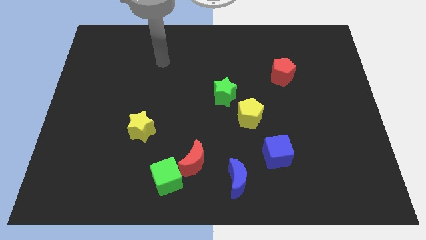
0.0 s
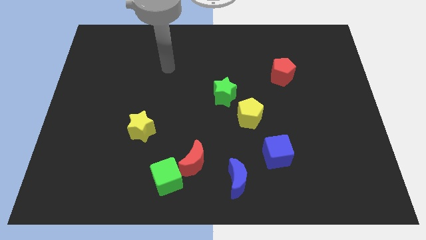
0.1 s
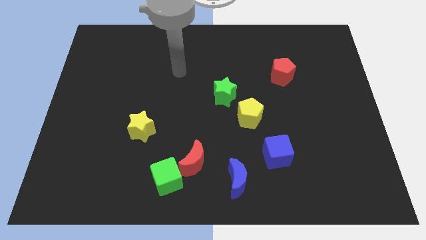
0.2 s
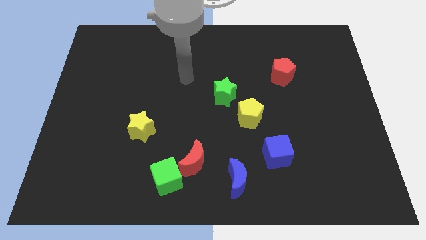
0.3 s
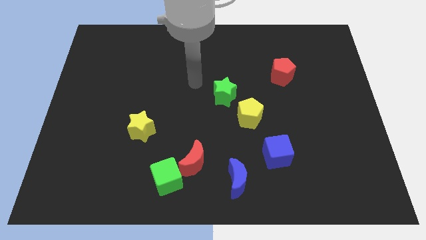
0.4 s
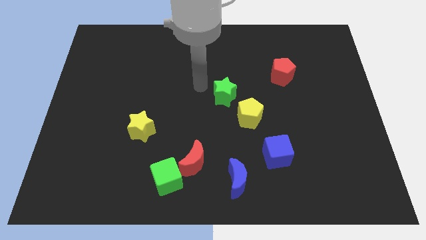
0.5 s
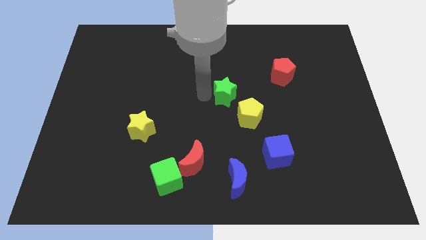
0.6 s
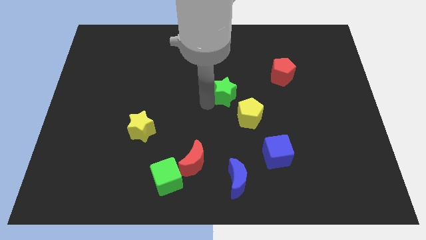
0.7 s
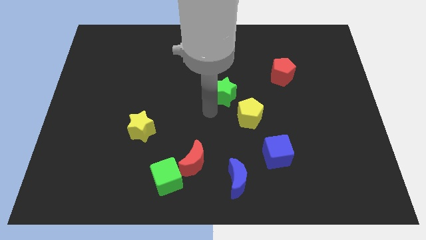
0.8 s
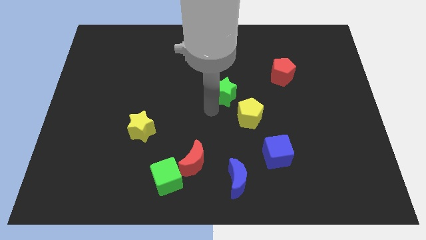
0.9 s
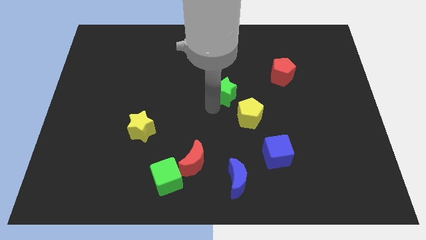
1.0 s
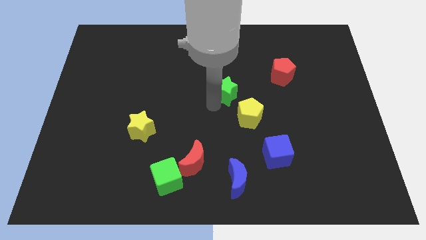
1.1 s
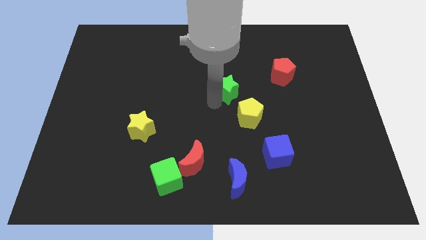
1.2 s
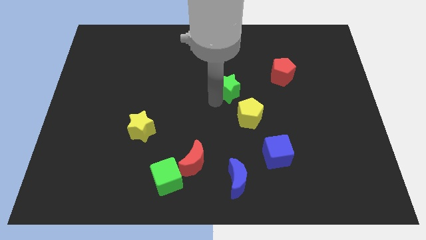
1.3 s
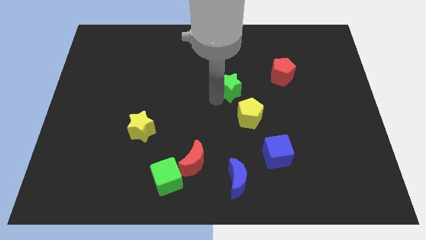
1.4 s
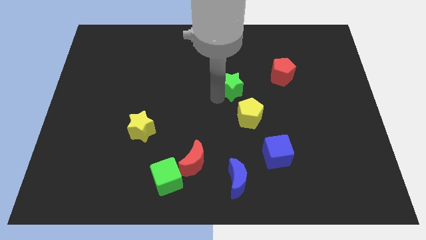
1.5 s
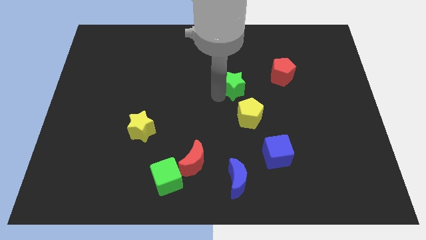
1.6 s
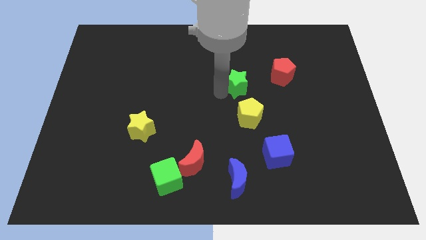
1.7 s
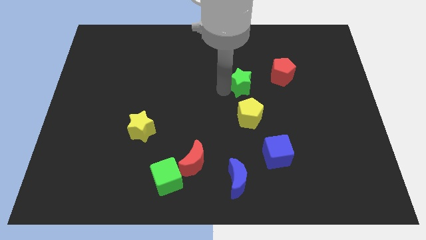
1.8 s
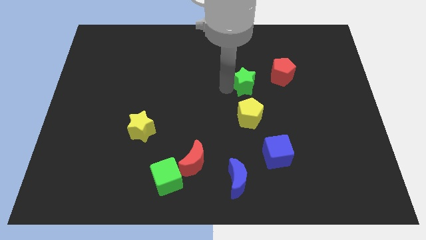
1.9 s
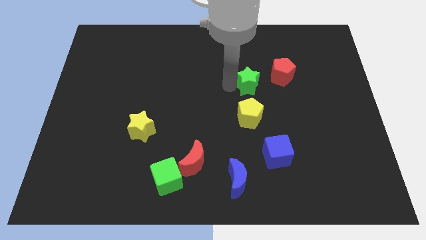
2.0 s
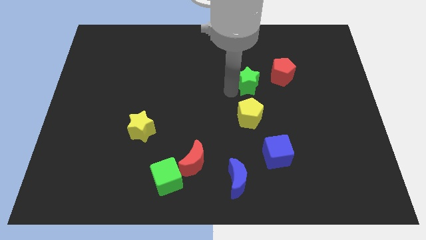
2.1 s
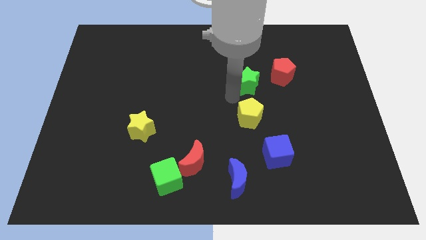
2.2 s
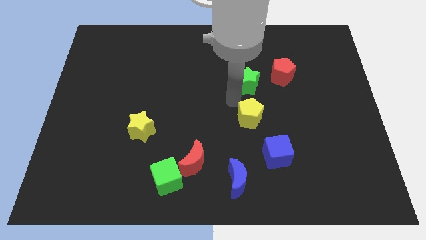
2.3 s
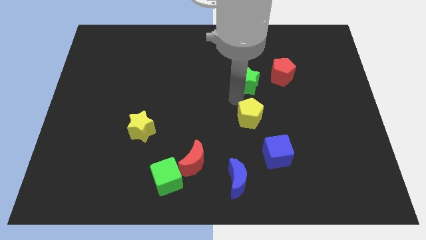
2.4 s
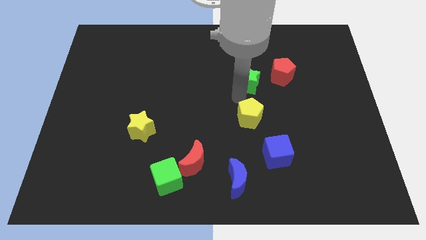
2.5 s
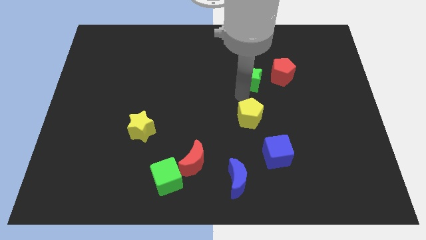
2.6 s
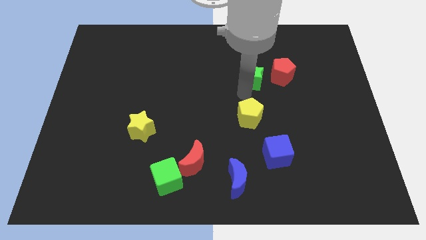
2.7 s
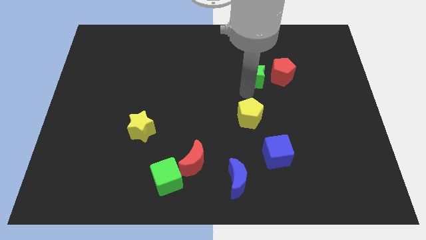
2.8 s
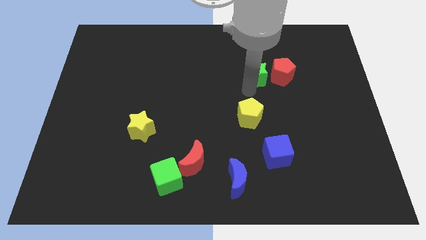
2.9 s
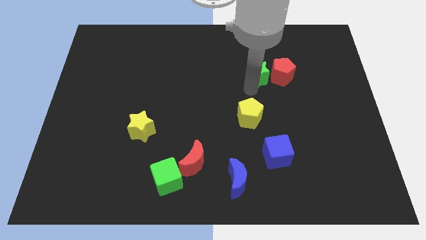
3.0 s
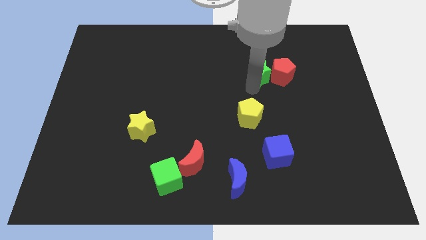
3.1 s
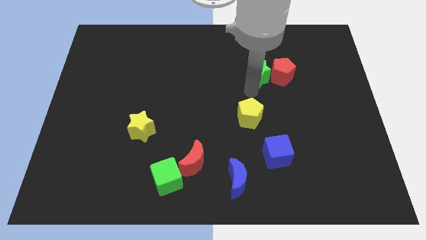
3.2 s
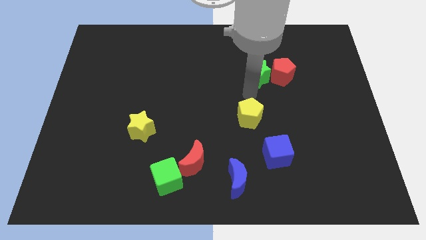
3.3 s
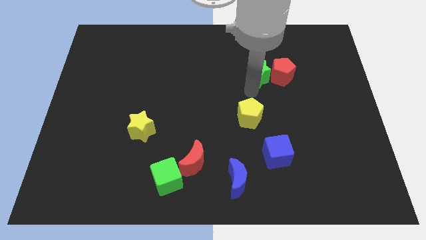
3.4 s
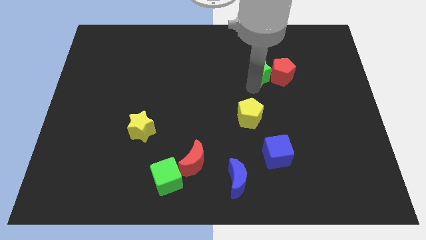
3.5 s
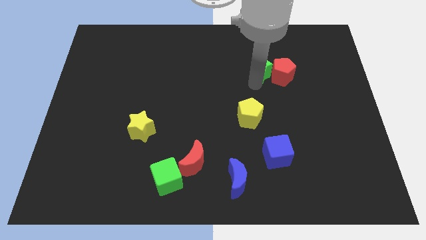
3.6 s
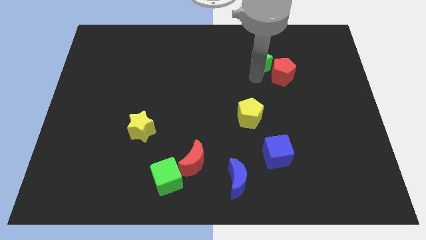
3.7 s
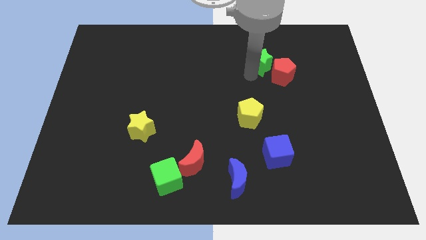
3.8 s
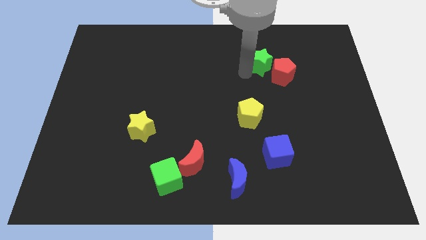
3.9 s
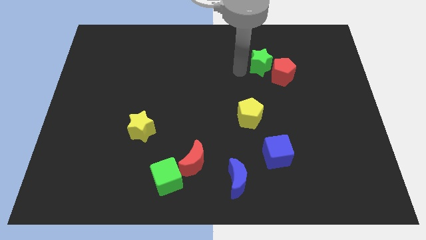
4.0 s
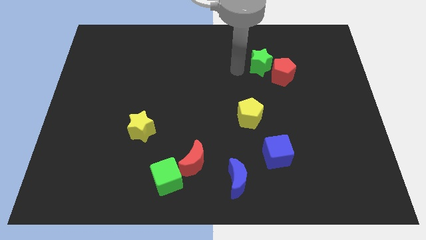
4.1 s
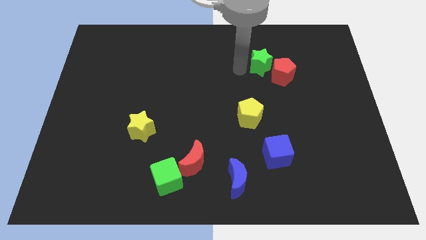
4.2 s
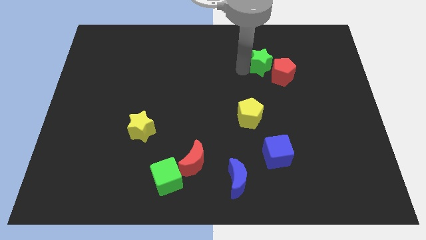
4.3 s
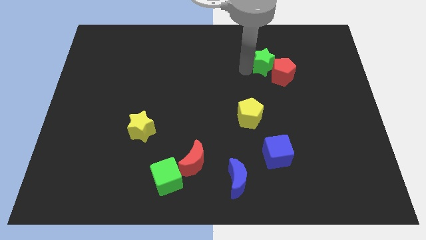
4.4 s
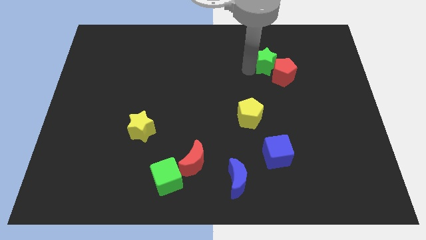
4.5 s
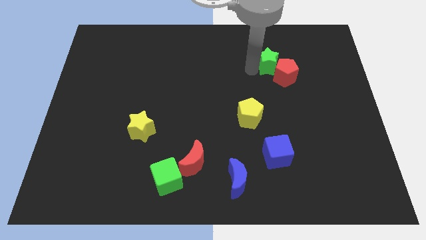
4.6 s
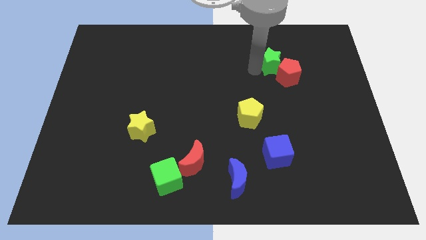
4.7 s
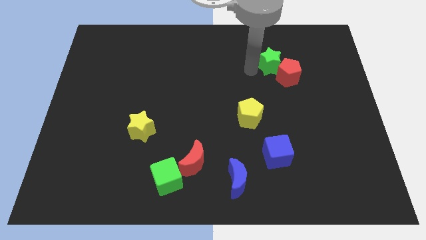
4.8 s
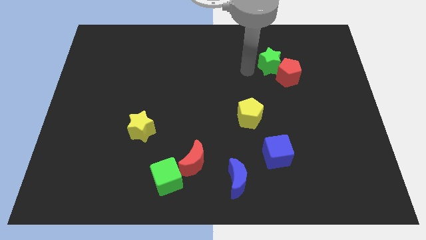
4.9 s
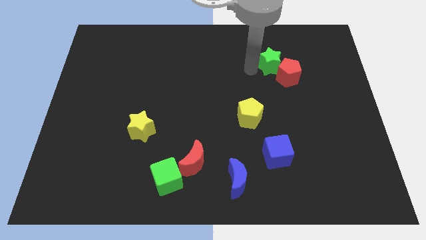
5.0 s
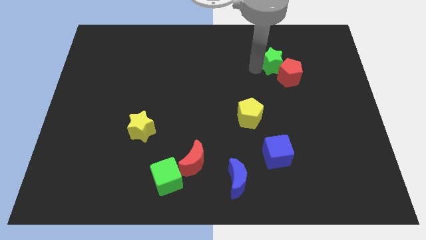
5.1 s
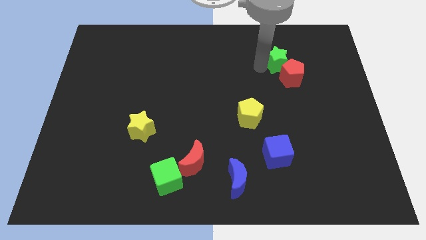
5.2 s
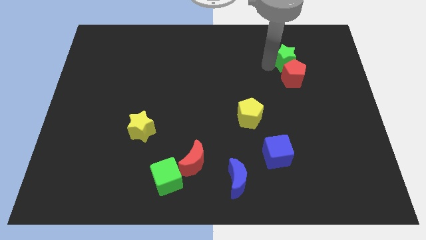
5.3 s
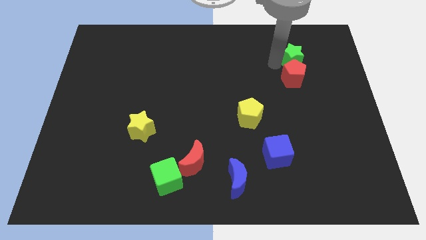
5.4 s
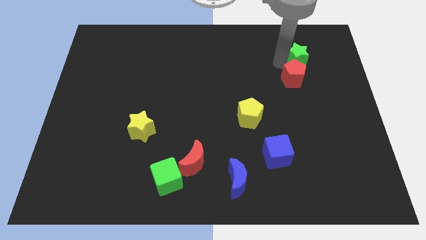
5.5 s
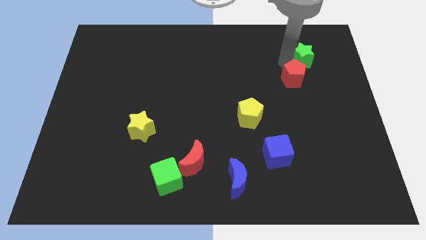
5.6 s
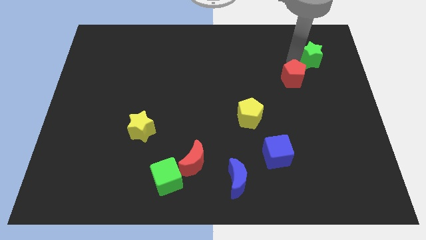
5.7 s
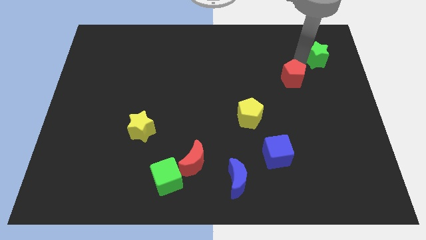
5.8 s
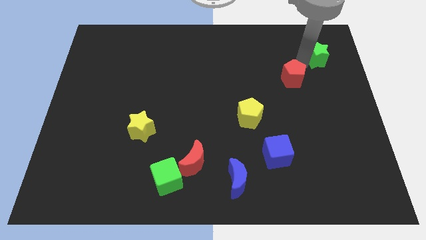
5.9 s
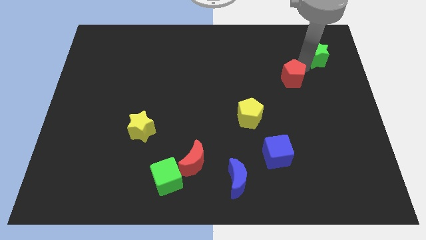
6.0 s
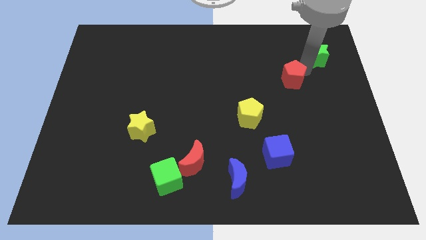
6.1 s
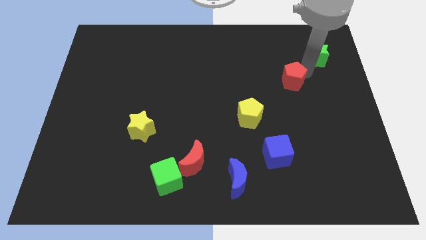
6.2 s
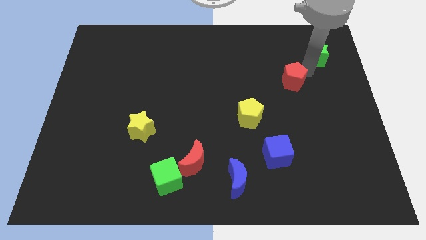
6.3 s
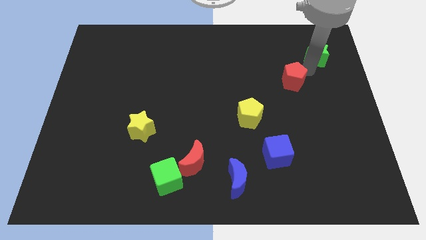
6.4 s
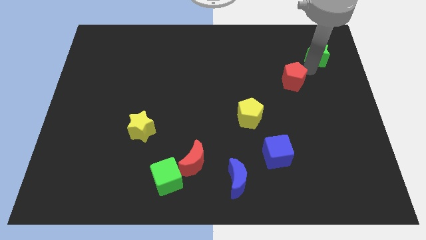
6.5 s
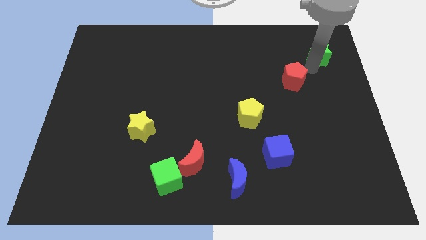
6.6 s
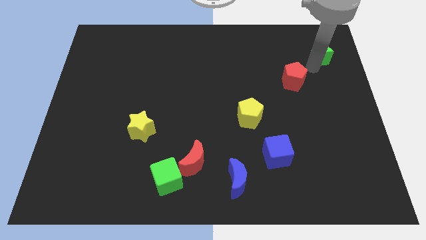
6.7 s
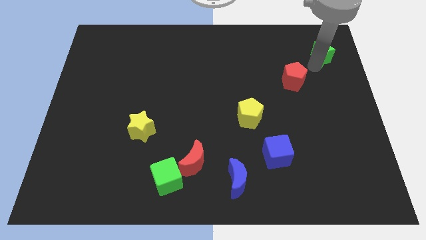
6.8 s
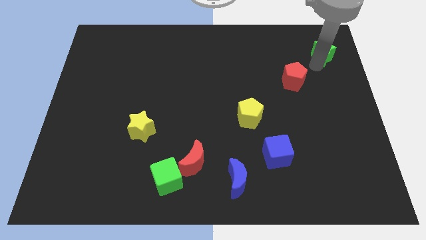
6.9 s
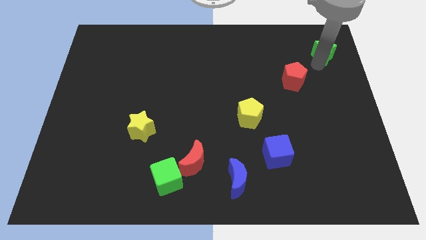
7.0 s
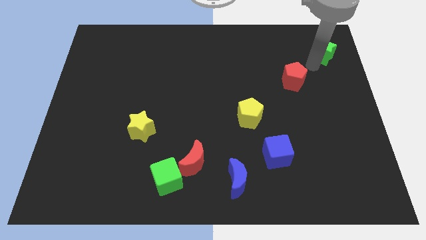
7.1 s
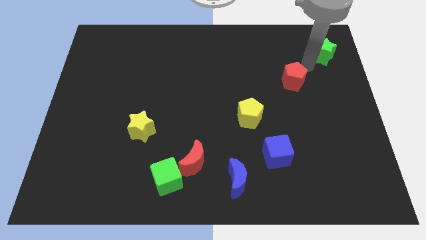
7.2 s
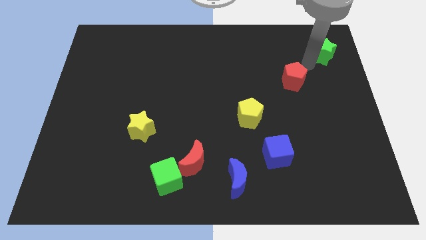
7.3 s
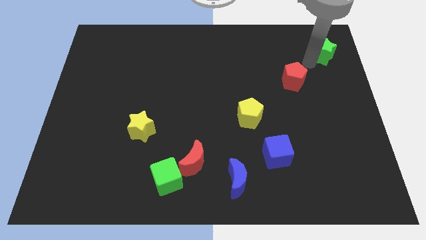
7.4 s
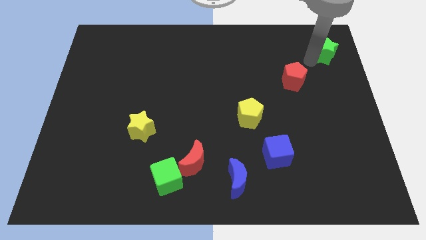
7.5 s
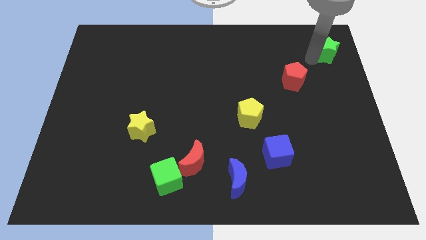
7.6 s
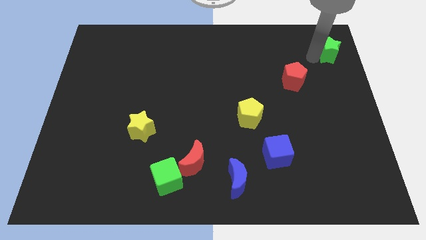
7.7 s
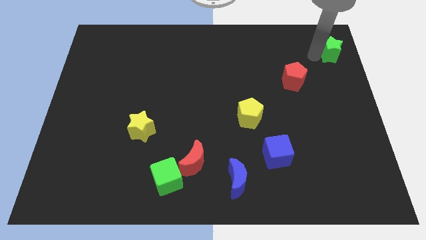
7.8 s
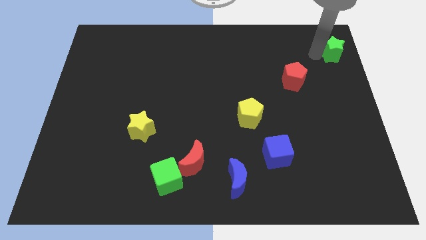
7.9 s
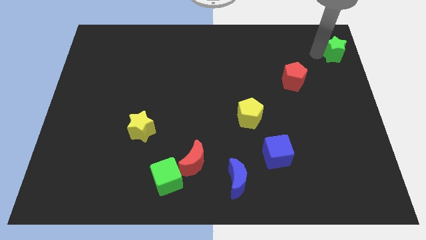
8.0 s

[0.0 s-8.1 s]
move the green star to the top right
